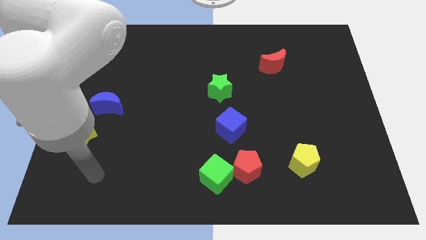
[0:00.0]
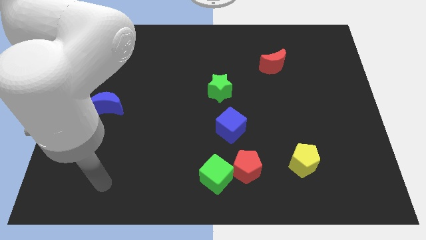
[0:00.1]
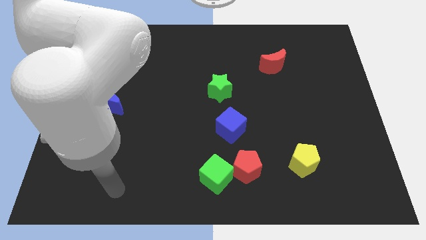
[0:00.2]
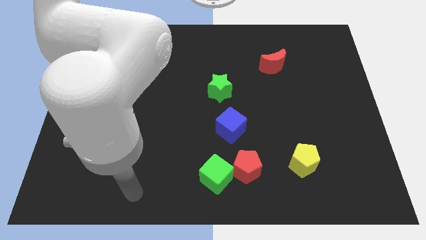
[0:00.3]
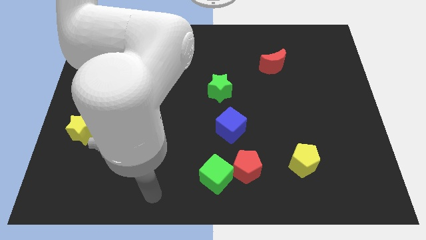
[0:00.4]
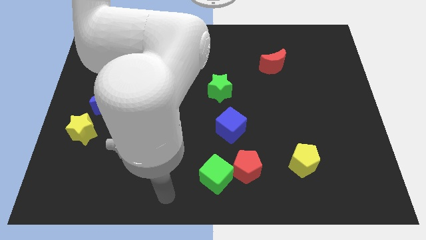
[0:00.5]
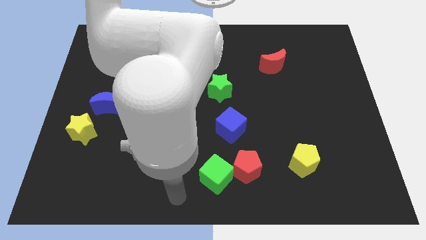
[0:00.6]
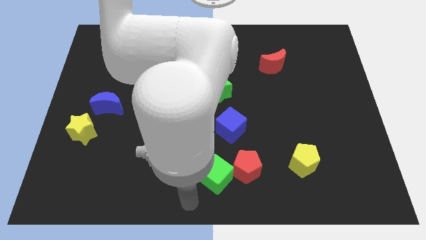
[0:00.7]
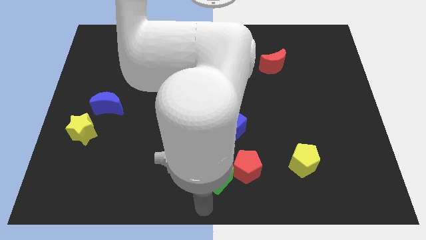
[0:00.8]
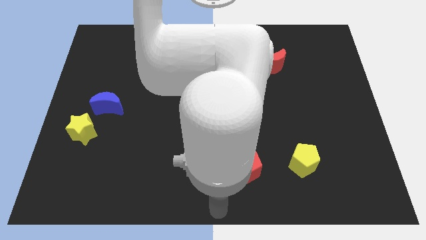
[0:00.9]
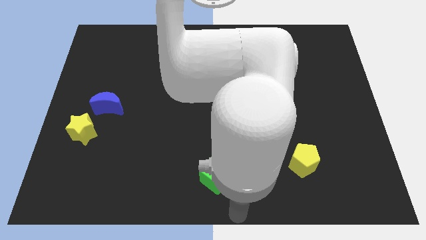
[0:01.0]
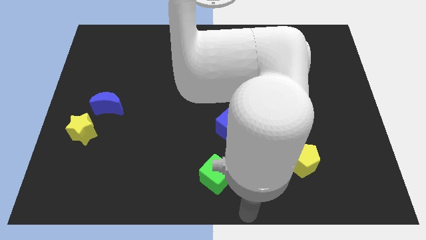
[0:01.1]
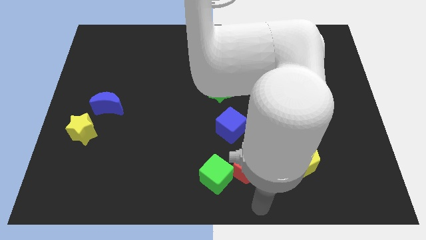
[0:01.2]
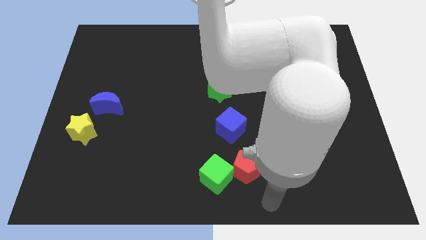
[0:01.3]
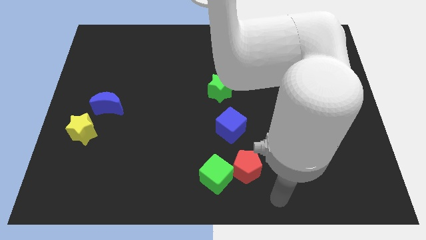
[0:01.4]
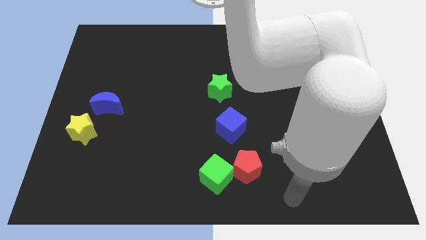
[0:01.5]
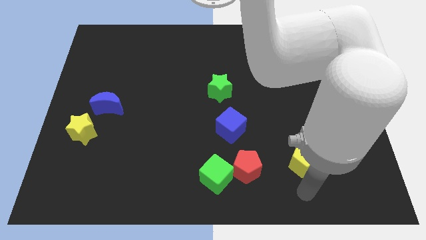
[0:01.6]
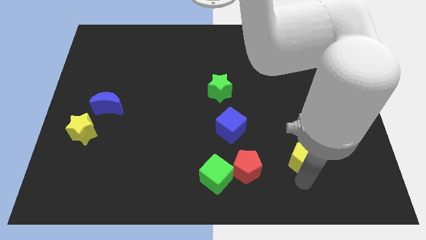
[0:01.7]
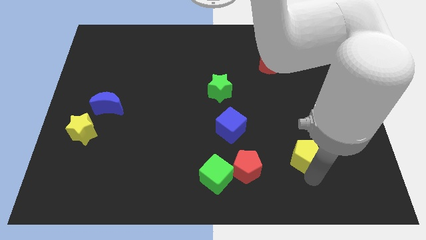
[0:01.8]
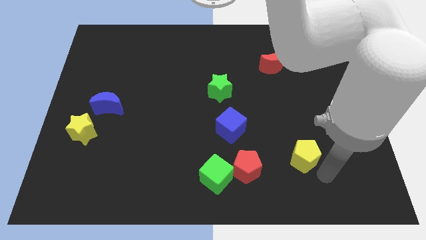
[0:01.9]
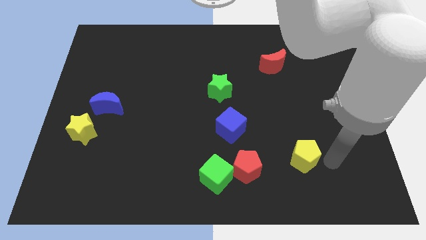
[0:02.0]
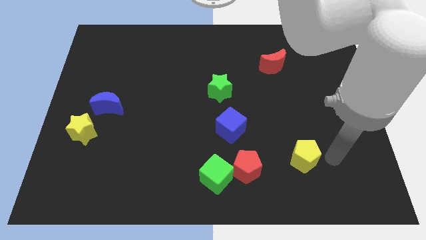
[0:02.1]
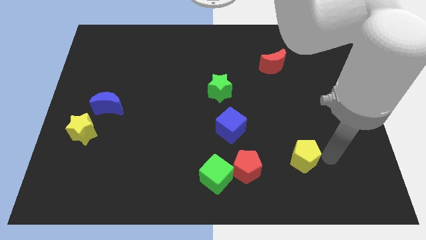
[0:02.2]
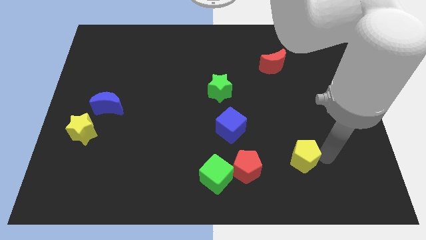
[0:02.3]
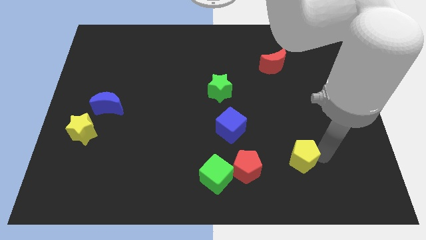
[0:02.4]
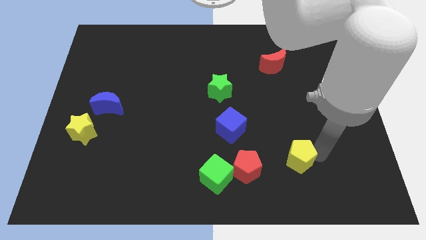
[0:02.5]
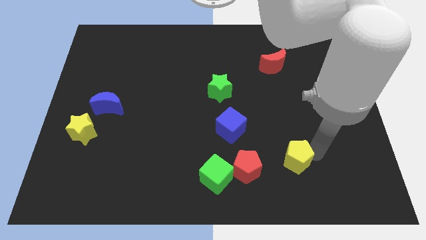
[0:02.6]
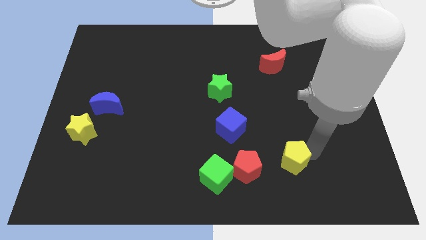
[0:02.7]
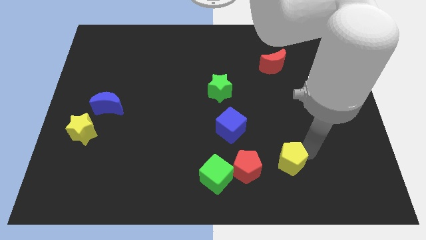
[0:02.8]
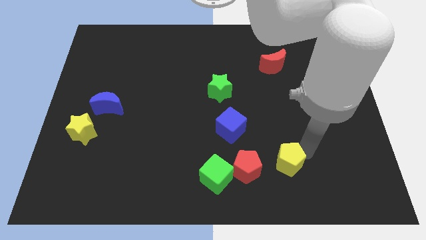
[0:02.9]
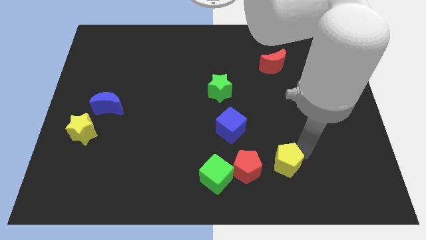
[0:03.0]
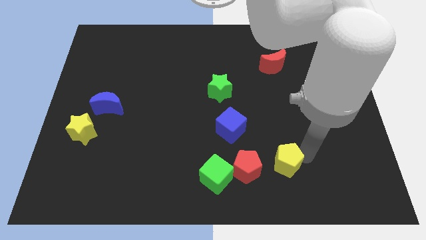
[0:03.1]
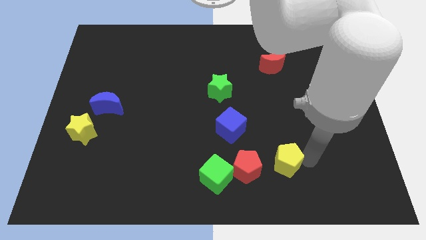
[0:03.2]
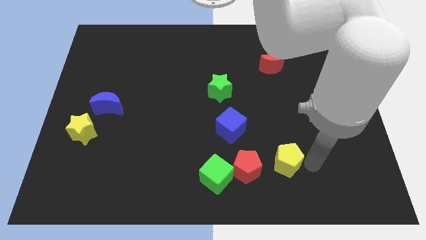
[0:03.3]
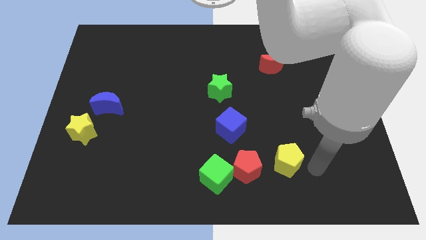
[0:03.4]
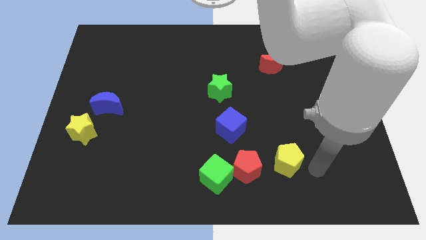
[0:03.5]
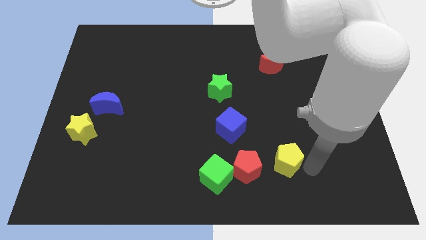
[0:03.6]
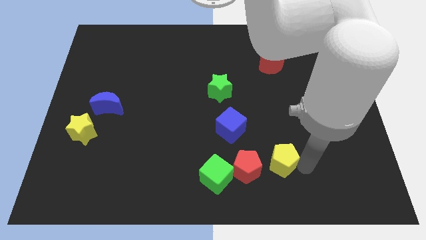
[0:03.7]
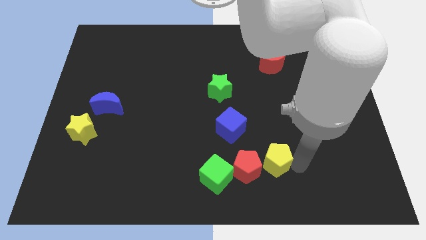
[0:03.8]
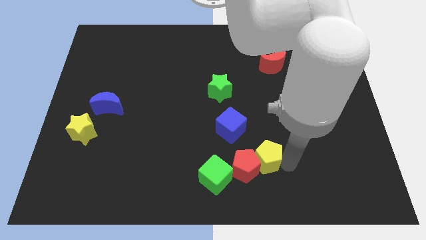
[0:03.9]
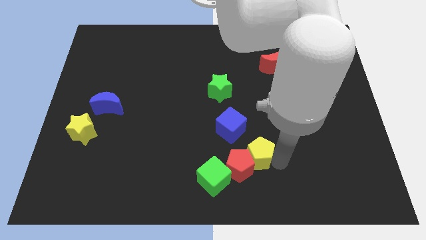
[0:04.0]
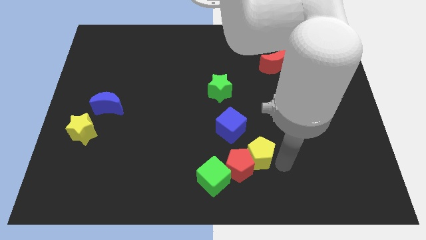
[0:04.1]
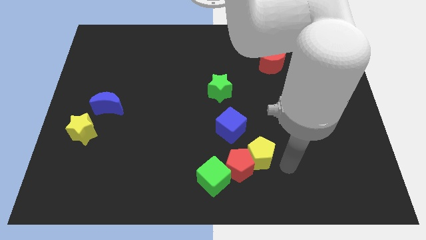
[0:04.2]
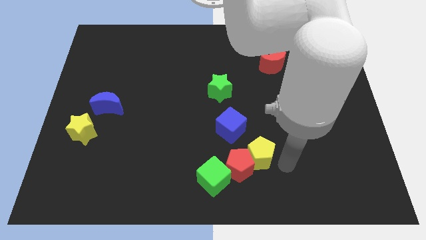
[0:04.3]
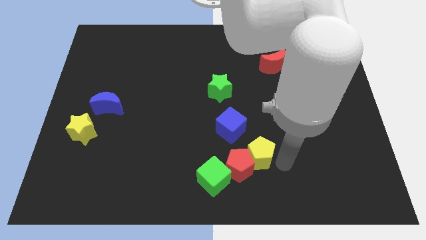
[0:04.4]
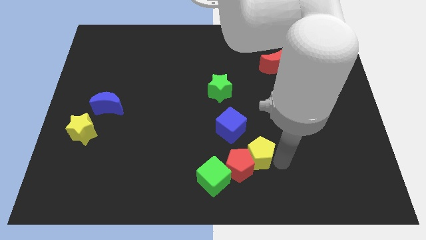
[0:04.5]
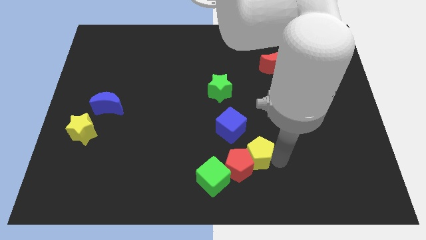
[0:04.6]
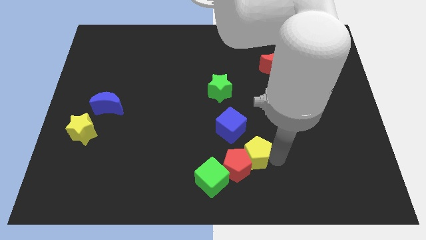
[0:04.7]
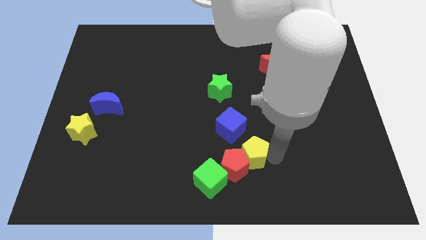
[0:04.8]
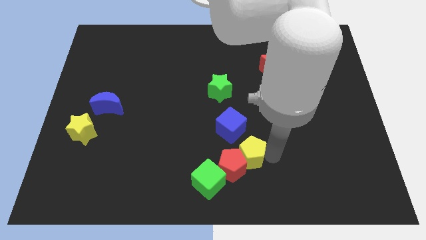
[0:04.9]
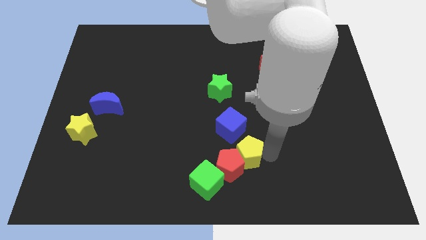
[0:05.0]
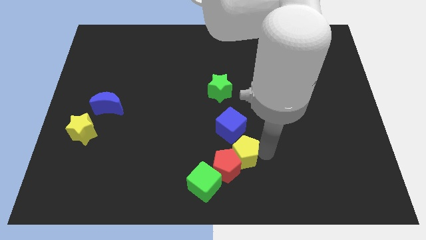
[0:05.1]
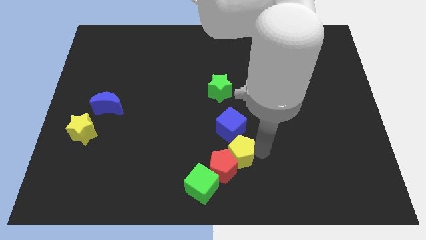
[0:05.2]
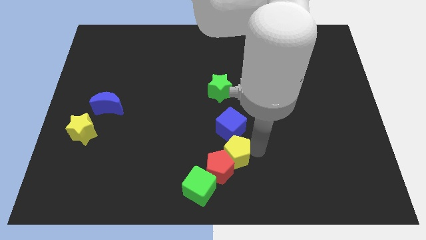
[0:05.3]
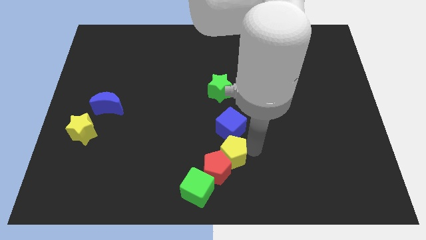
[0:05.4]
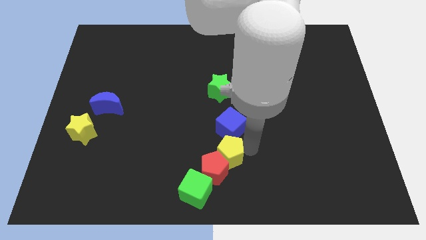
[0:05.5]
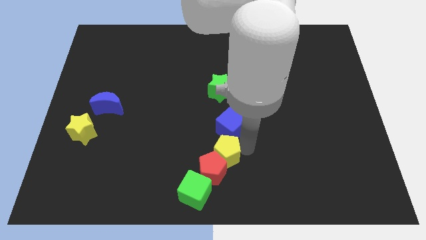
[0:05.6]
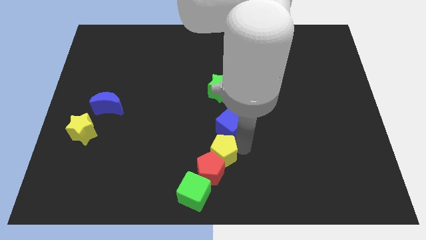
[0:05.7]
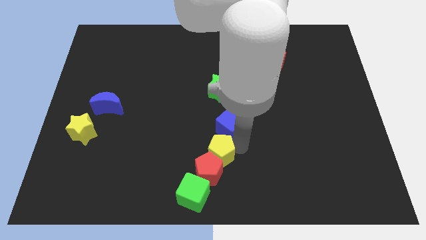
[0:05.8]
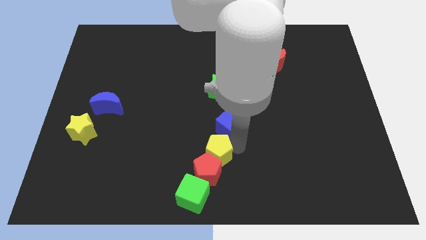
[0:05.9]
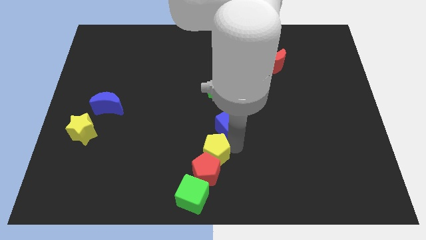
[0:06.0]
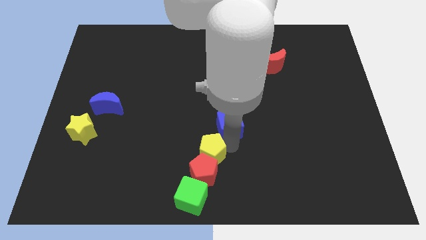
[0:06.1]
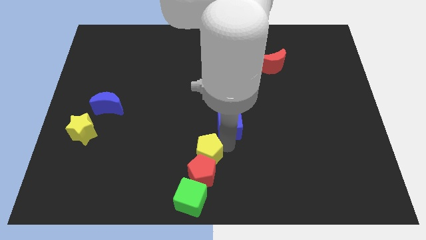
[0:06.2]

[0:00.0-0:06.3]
slide the yellow pentagon left

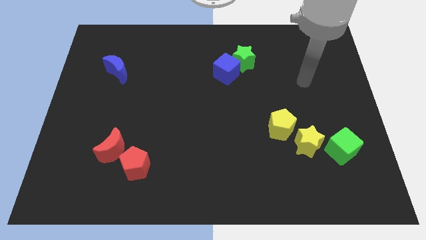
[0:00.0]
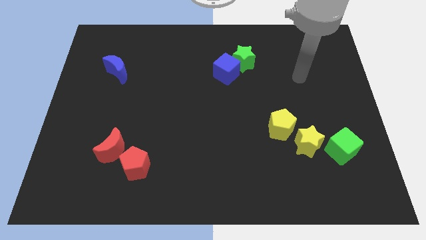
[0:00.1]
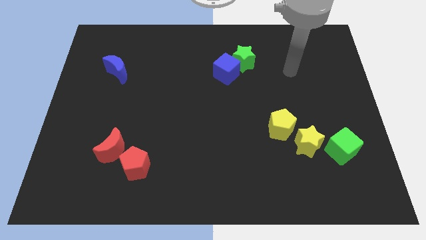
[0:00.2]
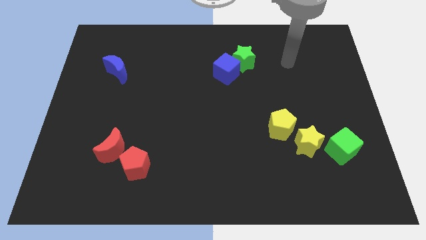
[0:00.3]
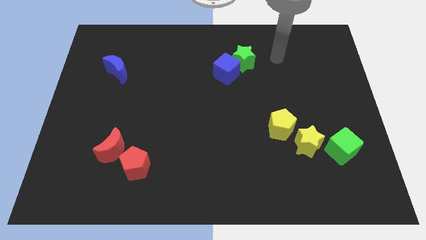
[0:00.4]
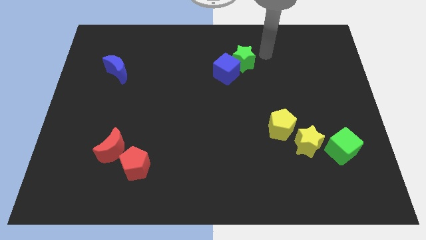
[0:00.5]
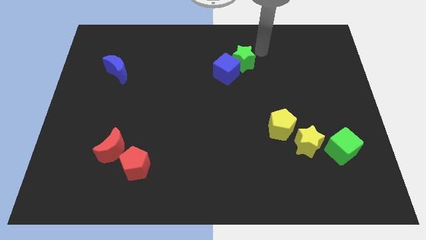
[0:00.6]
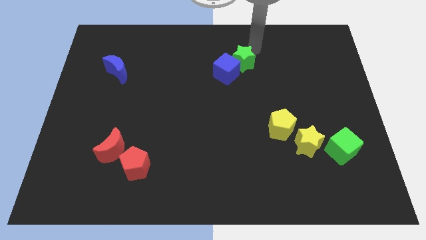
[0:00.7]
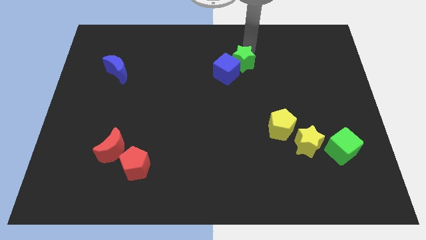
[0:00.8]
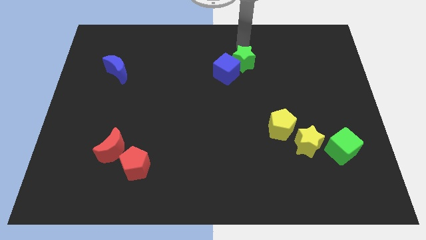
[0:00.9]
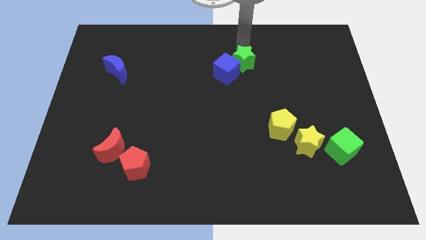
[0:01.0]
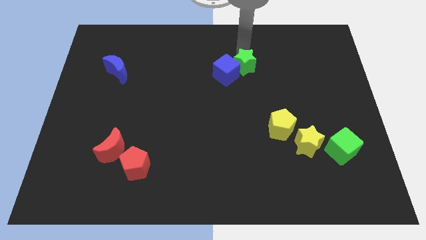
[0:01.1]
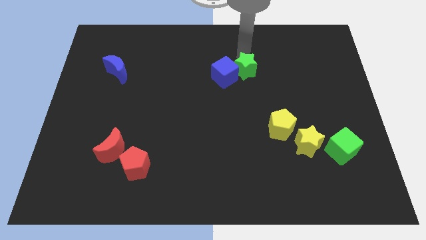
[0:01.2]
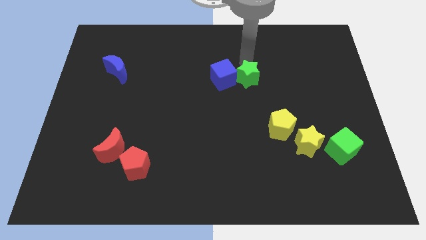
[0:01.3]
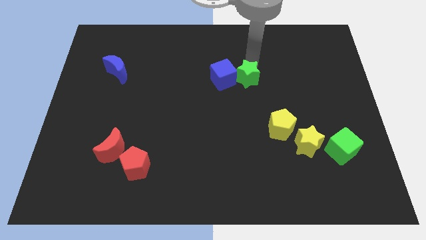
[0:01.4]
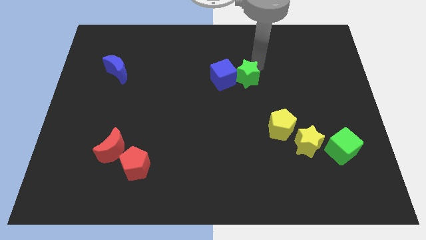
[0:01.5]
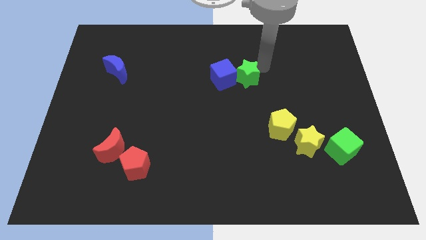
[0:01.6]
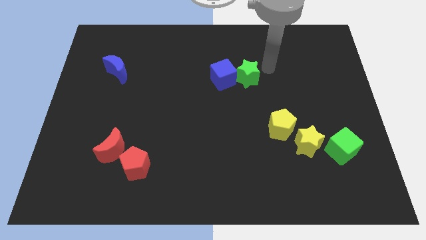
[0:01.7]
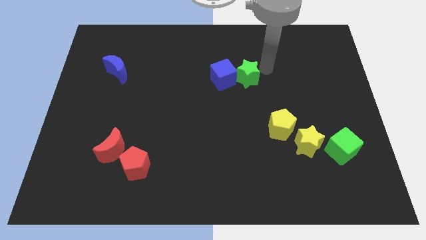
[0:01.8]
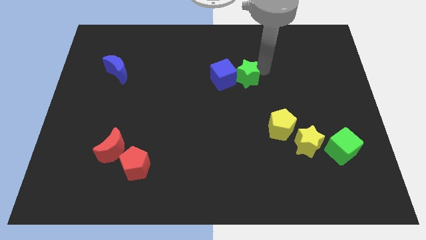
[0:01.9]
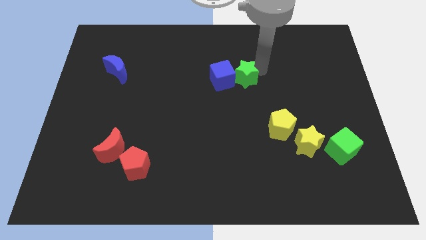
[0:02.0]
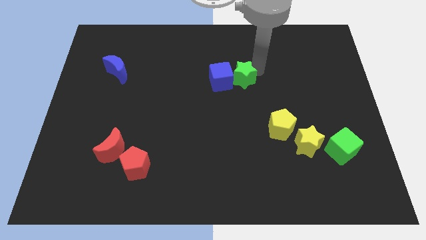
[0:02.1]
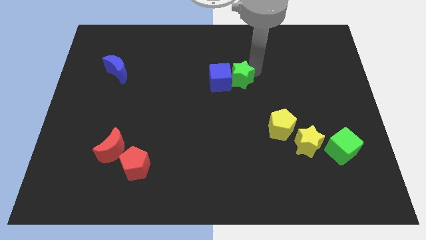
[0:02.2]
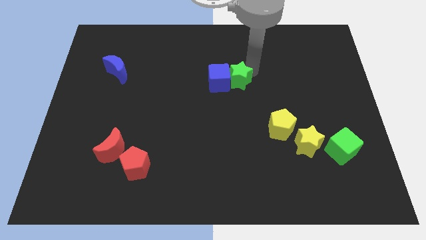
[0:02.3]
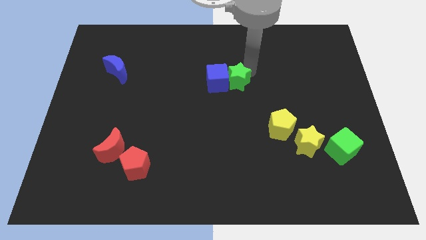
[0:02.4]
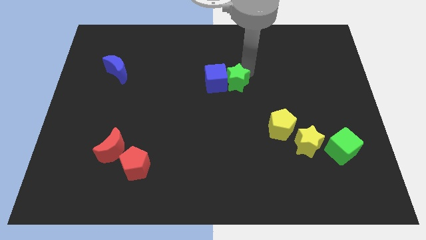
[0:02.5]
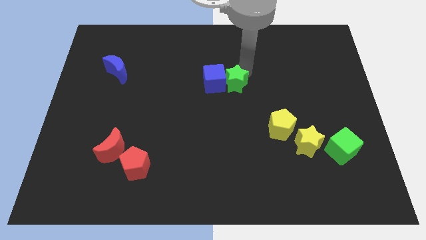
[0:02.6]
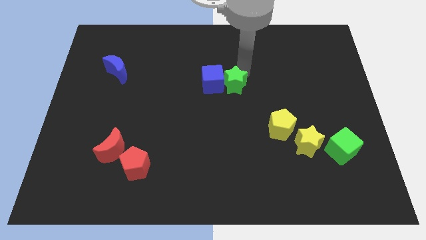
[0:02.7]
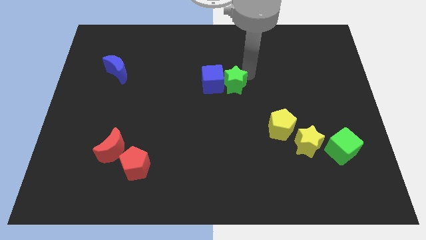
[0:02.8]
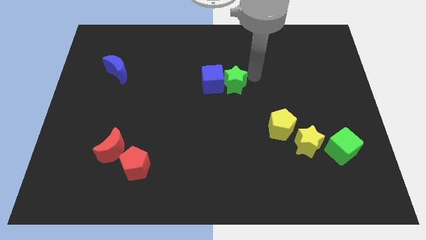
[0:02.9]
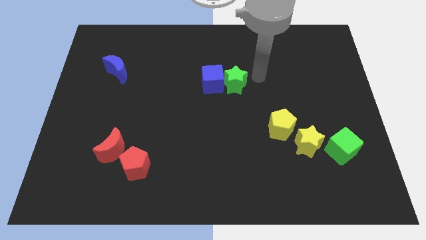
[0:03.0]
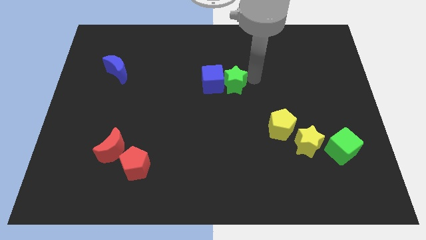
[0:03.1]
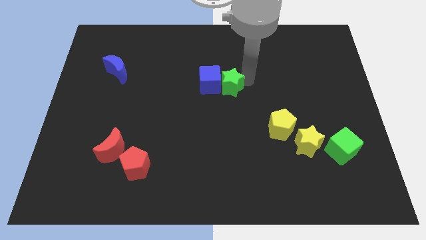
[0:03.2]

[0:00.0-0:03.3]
slightly slide the green star down and left diagonally
